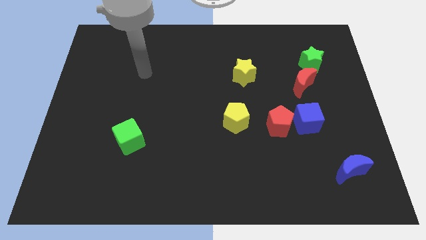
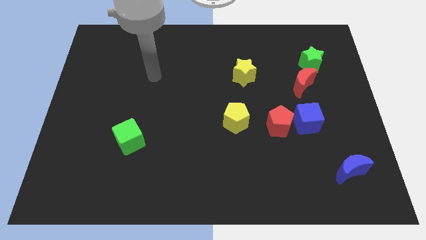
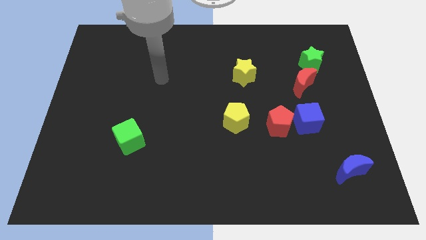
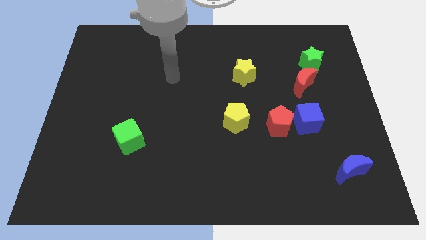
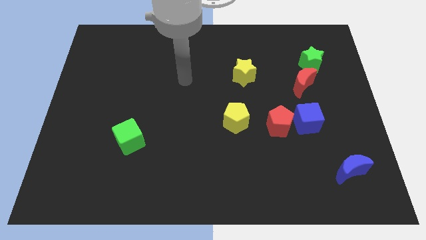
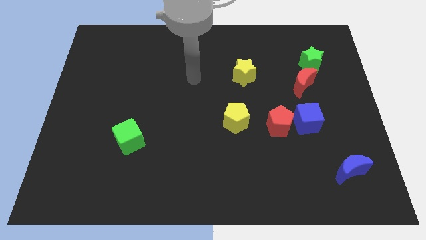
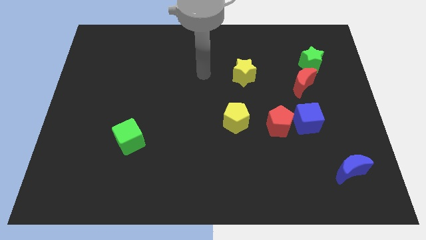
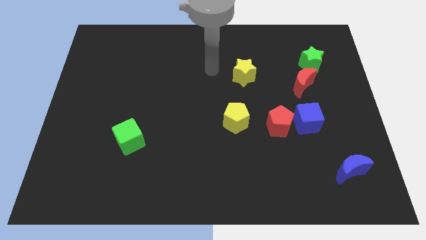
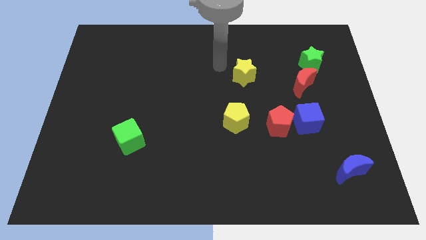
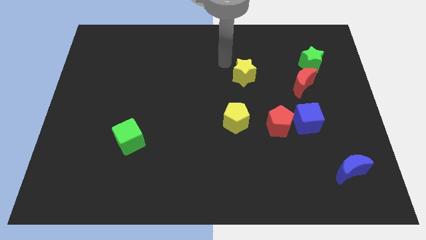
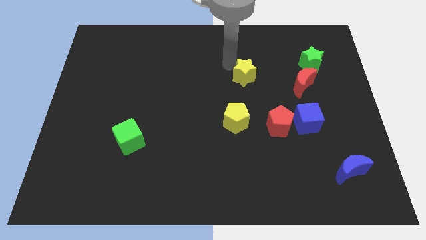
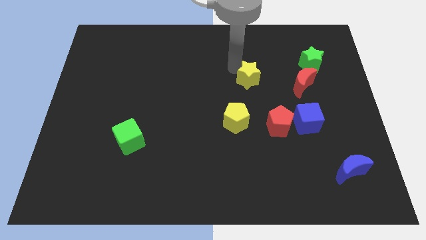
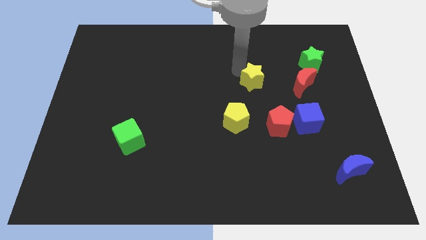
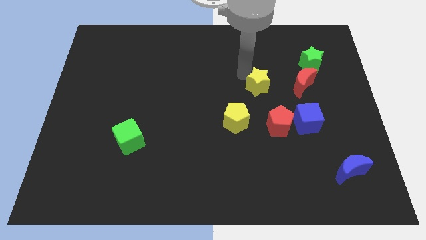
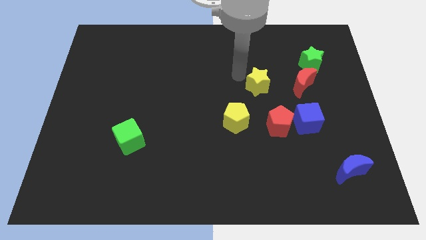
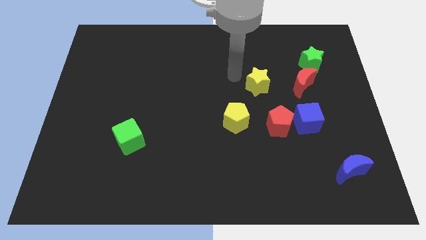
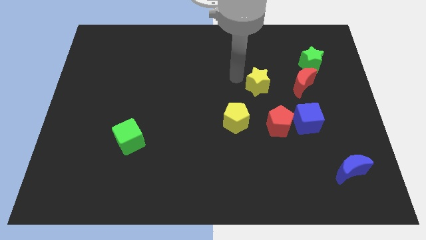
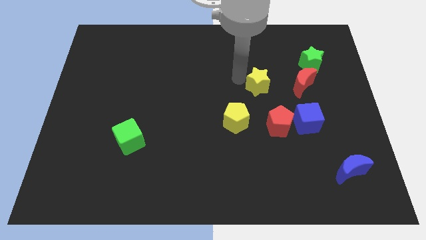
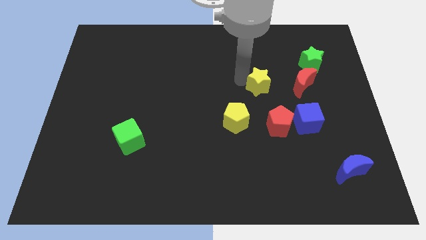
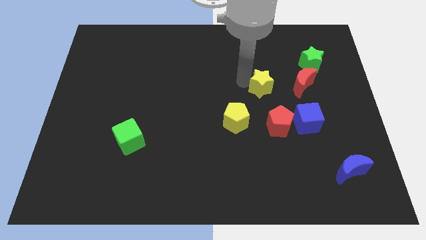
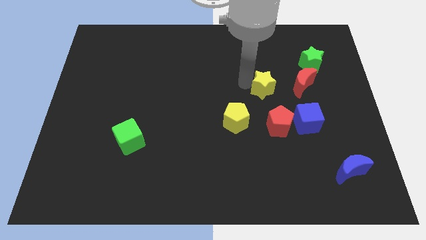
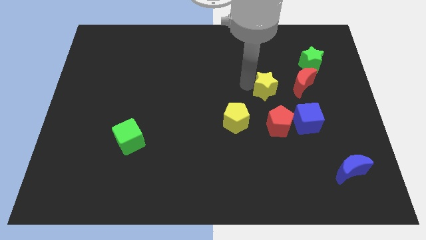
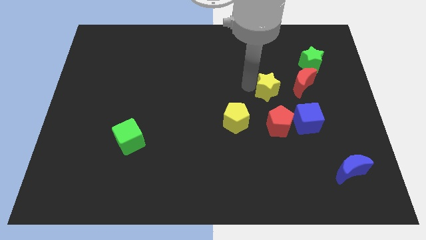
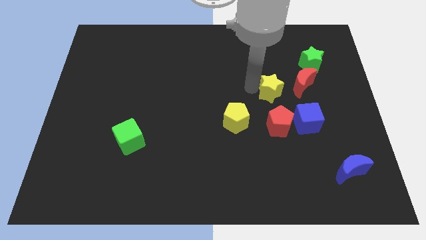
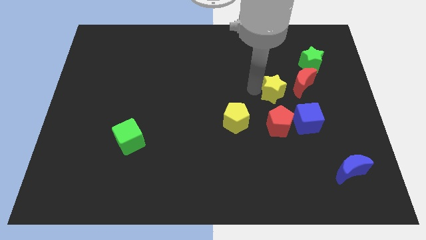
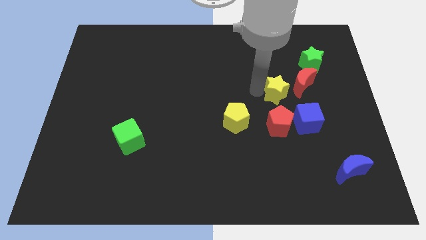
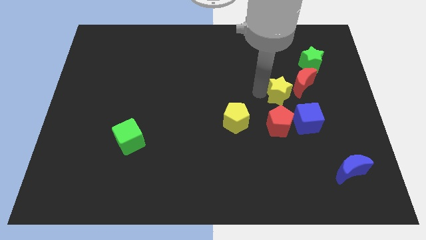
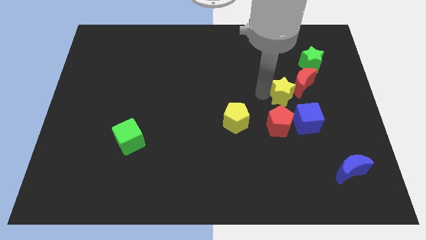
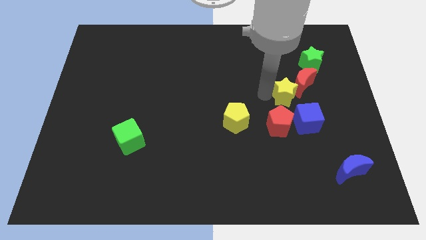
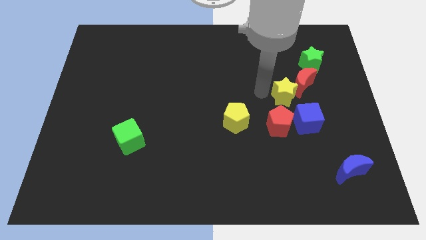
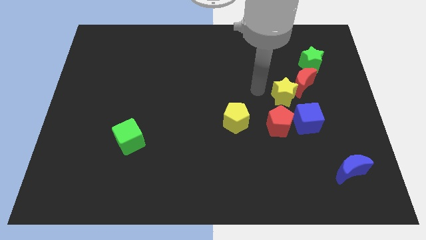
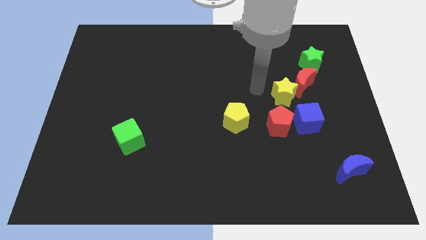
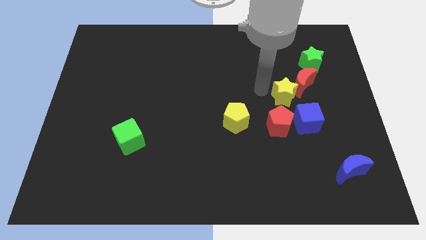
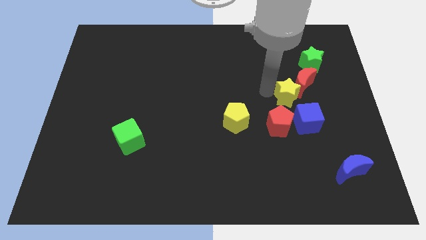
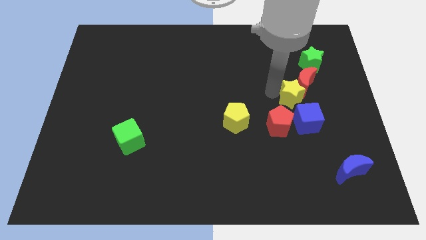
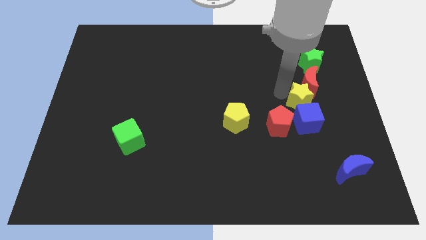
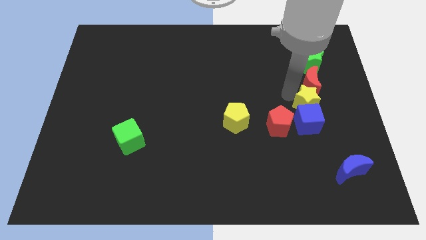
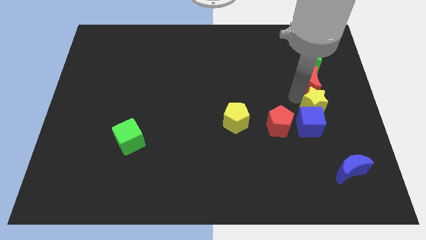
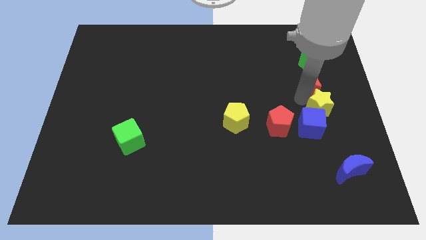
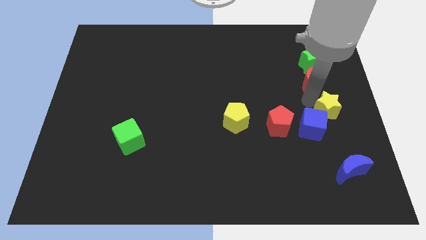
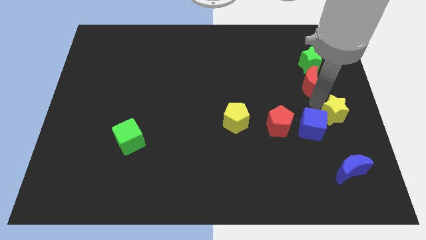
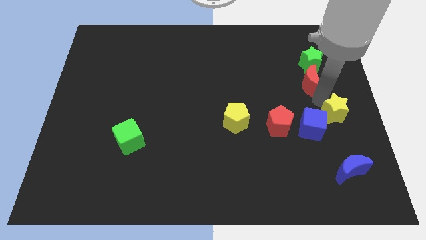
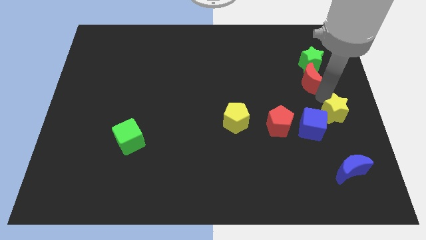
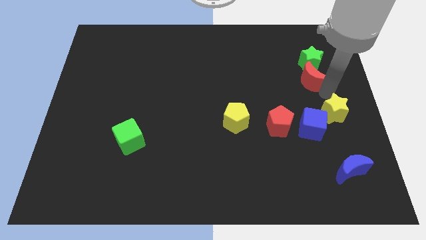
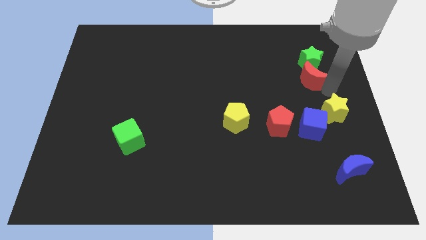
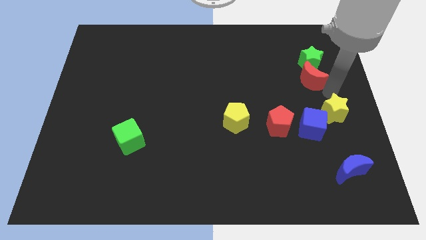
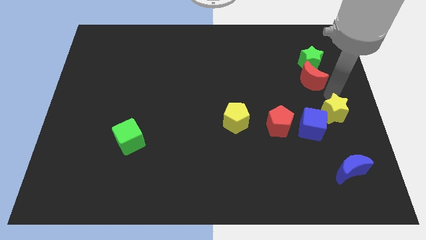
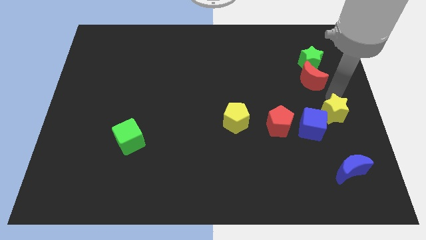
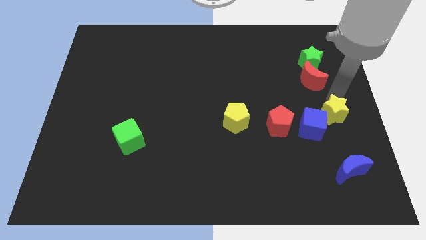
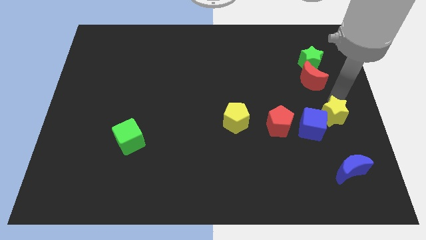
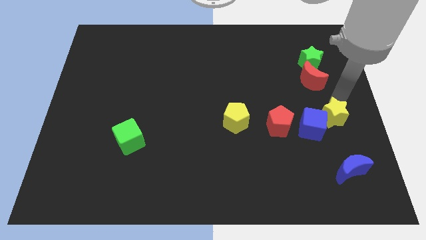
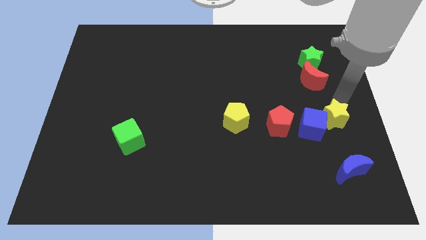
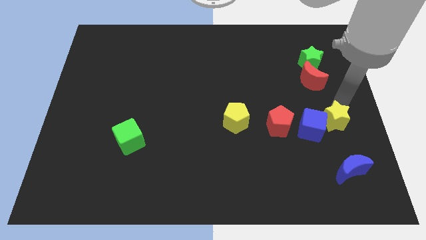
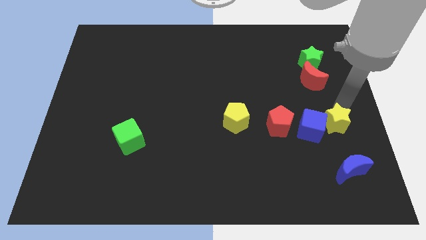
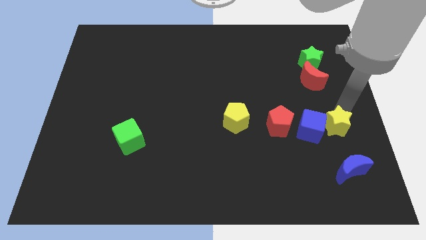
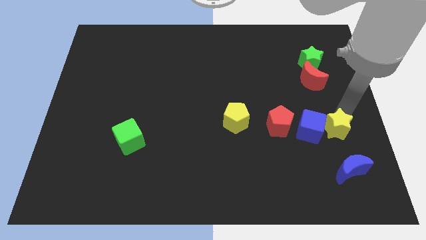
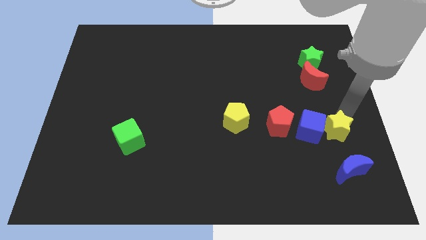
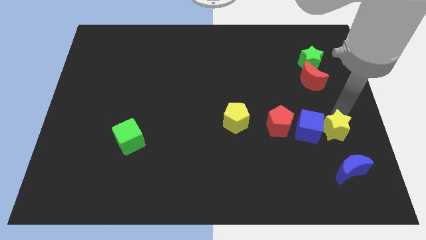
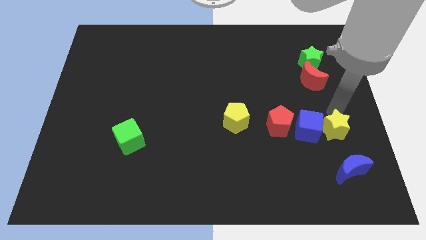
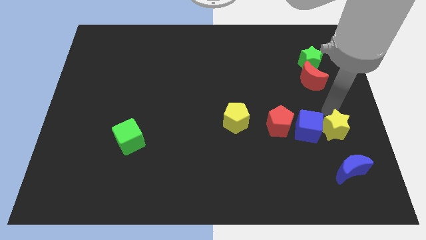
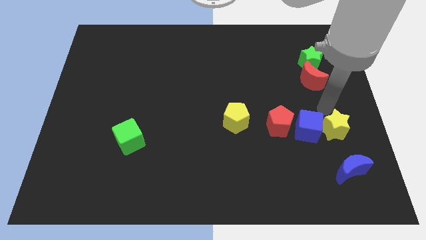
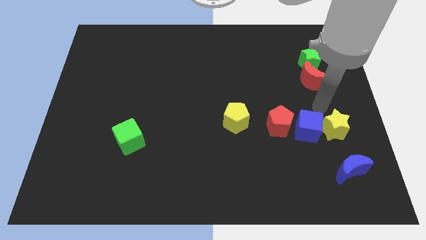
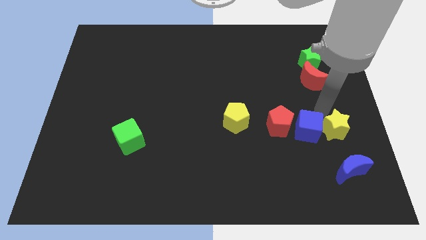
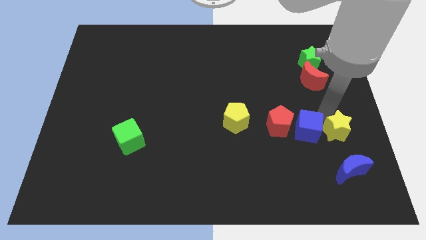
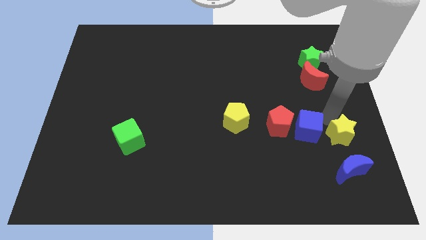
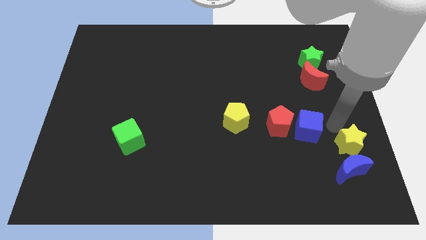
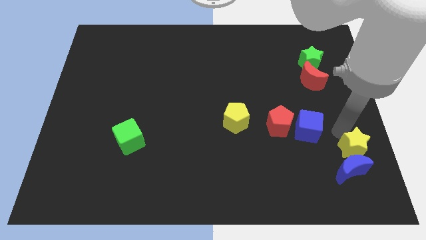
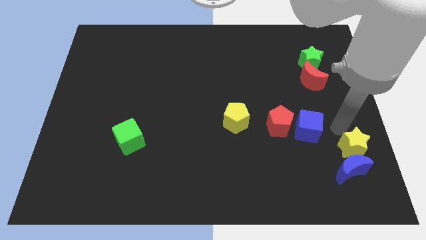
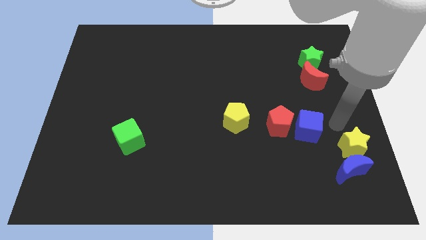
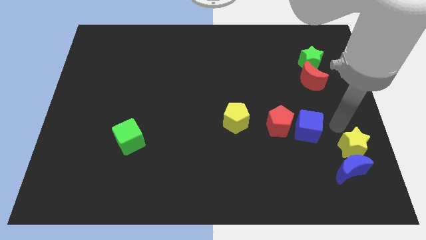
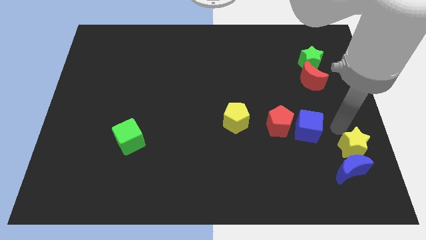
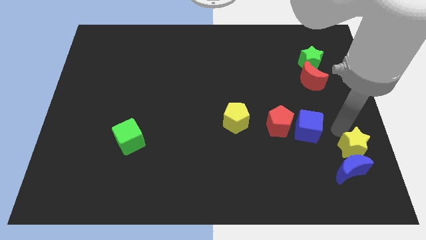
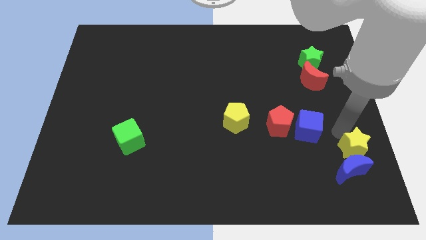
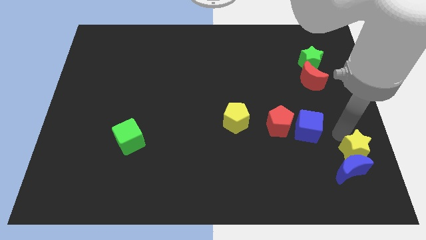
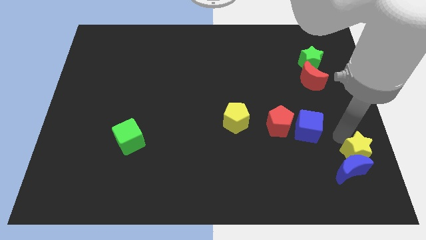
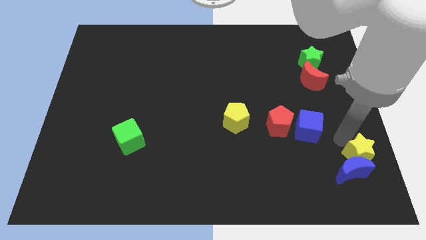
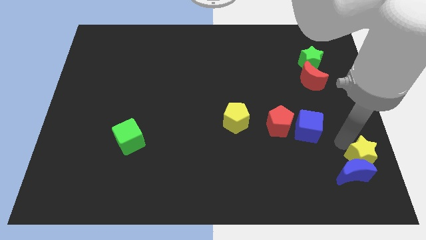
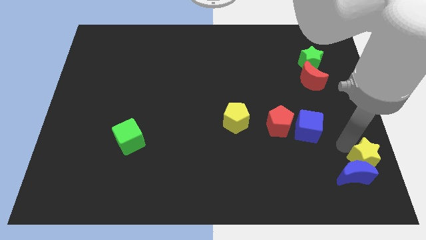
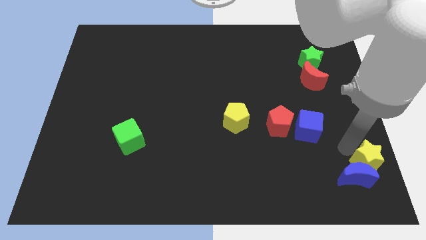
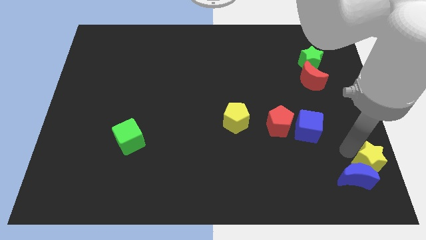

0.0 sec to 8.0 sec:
put the yellow star to the bottom right of the board
